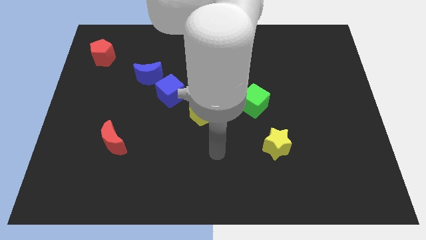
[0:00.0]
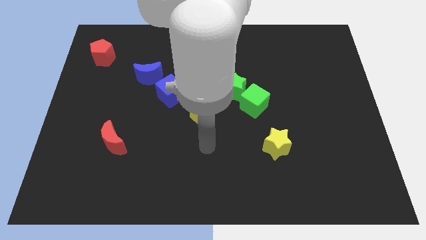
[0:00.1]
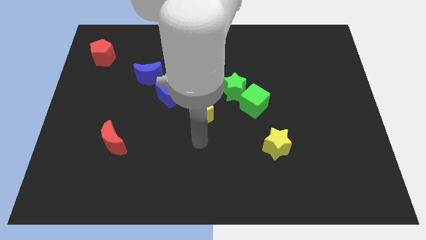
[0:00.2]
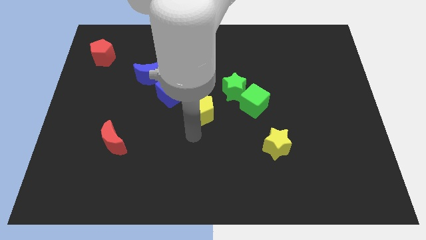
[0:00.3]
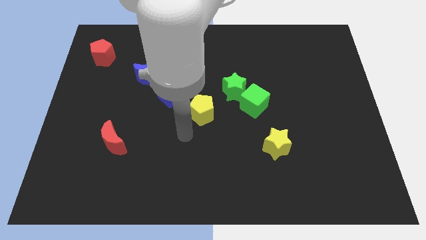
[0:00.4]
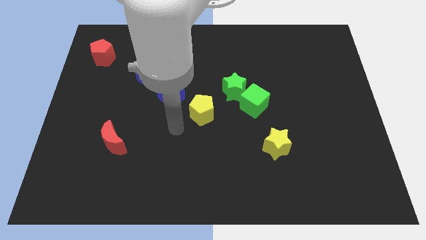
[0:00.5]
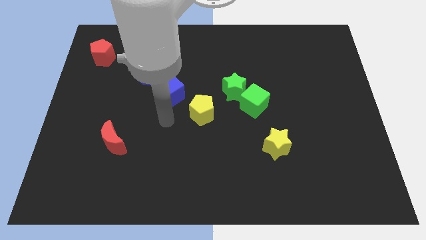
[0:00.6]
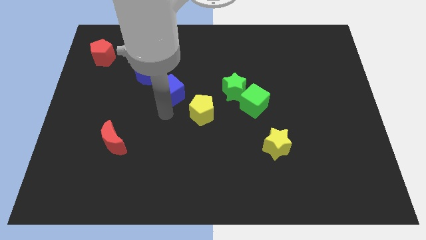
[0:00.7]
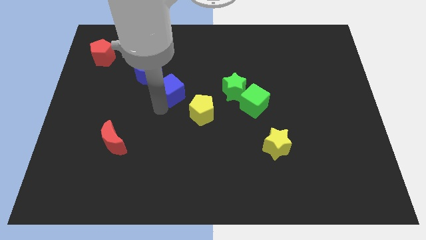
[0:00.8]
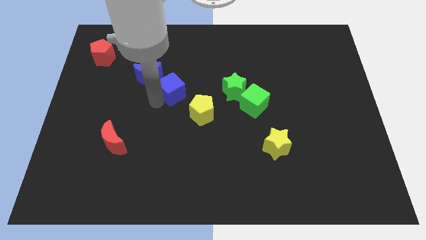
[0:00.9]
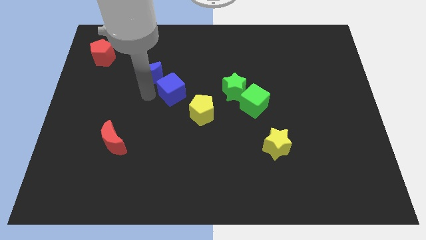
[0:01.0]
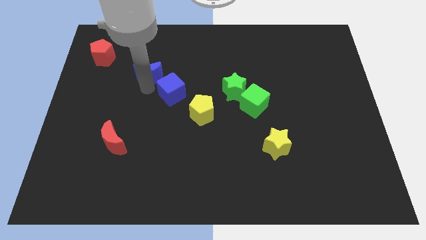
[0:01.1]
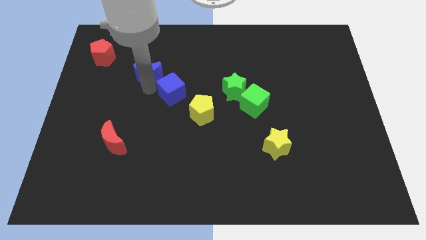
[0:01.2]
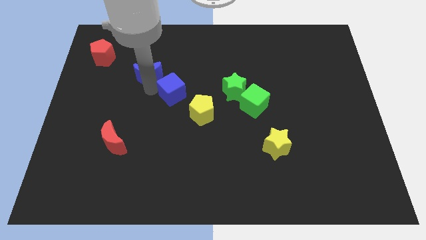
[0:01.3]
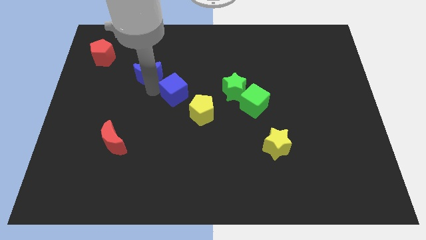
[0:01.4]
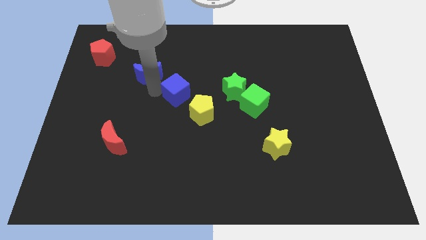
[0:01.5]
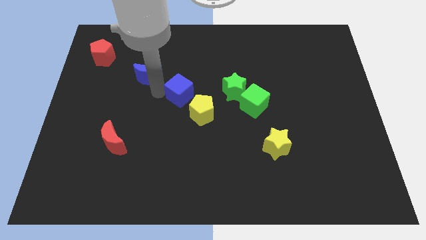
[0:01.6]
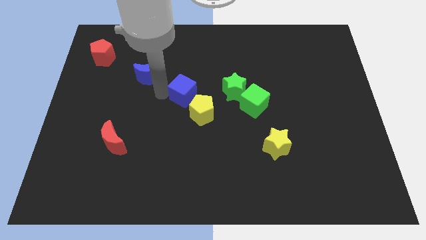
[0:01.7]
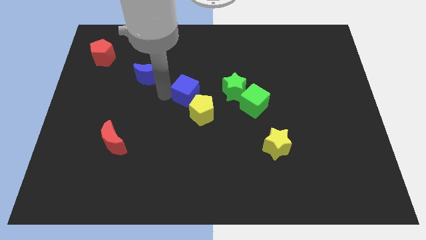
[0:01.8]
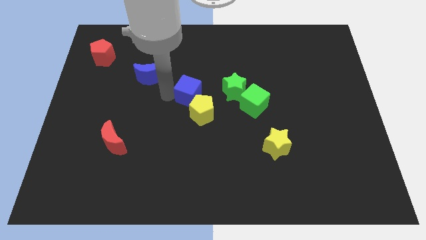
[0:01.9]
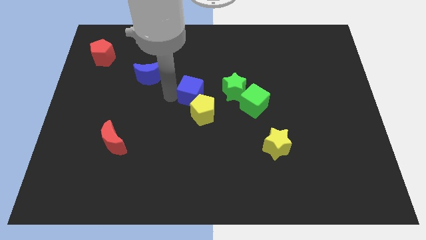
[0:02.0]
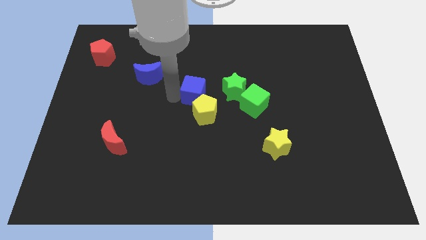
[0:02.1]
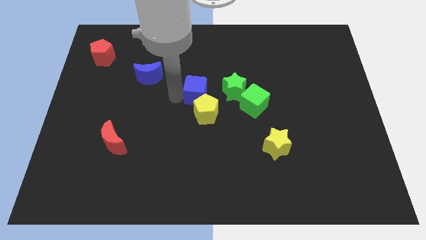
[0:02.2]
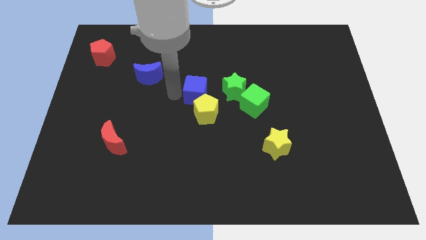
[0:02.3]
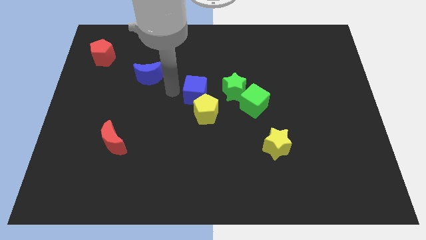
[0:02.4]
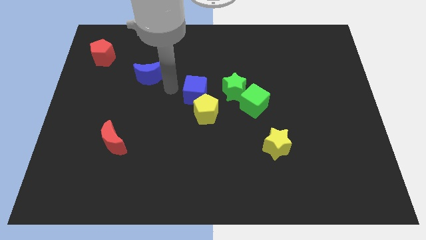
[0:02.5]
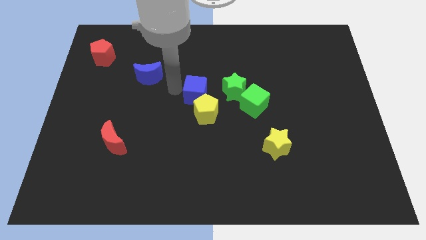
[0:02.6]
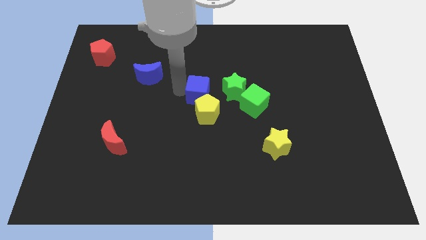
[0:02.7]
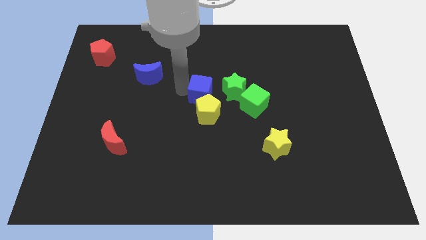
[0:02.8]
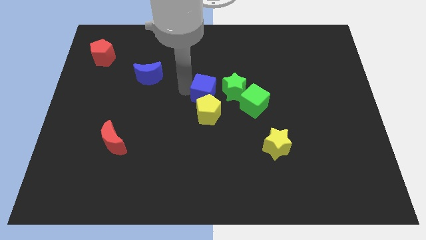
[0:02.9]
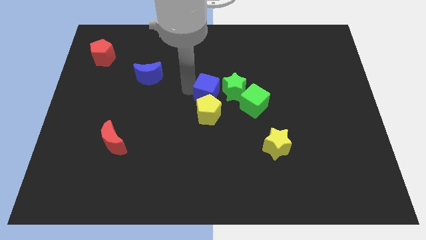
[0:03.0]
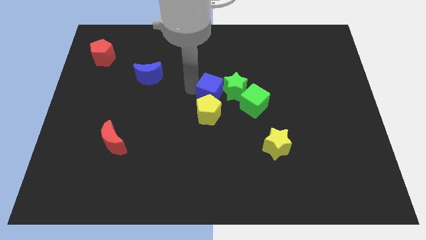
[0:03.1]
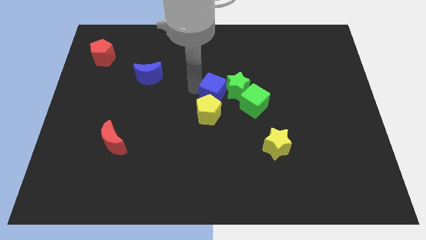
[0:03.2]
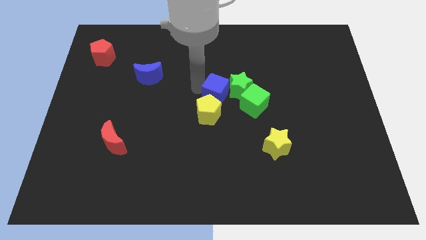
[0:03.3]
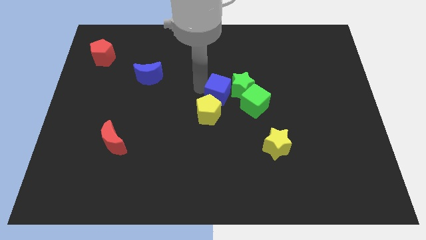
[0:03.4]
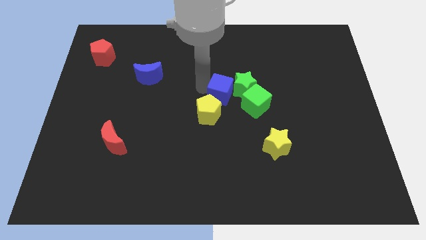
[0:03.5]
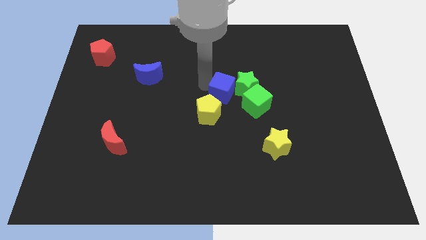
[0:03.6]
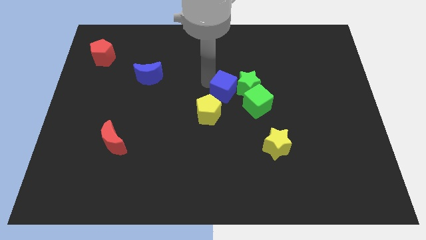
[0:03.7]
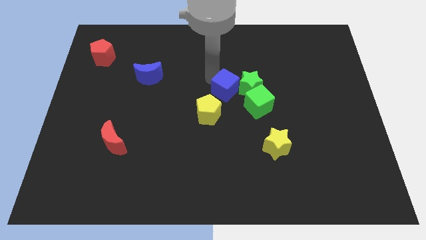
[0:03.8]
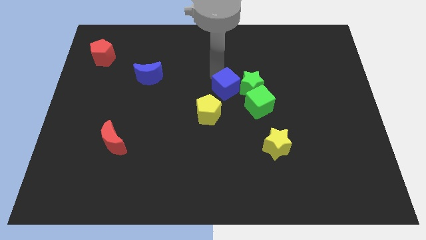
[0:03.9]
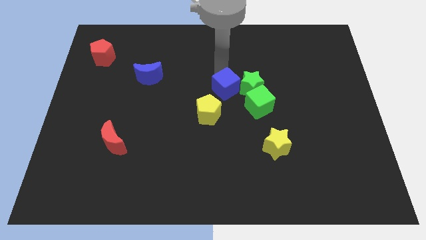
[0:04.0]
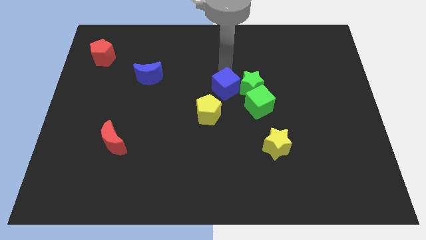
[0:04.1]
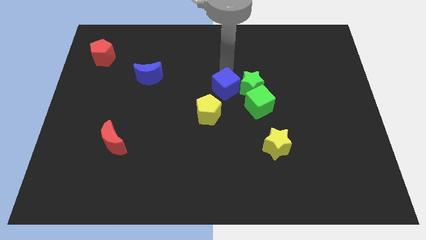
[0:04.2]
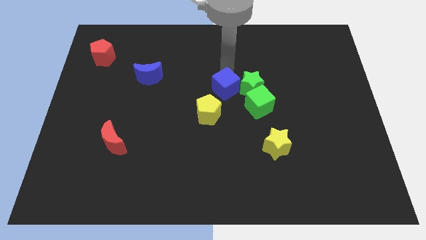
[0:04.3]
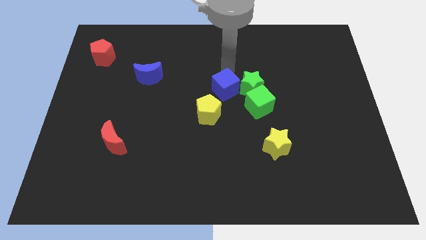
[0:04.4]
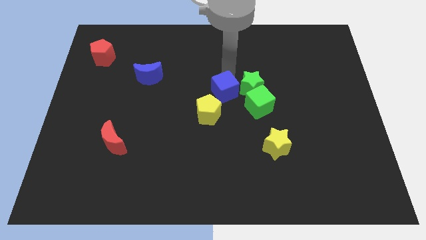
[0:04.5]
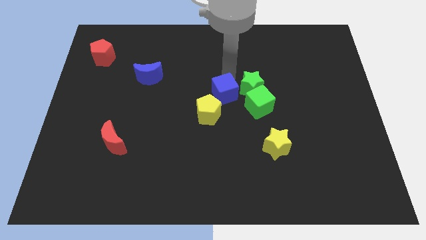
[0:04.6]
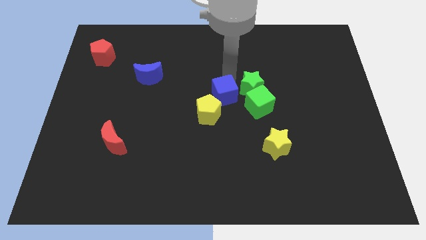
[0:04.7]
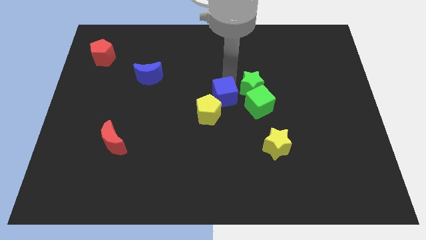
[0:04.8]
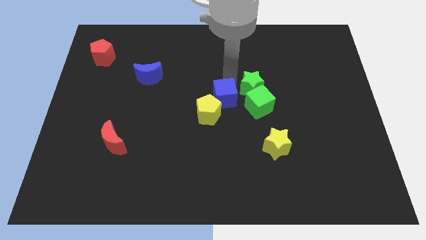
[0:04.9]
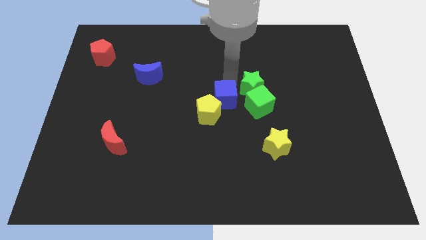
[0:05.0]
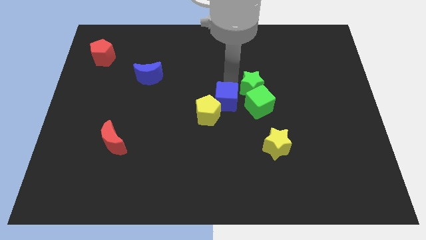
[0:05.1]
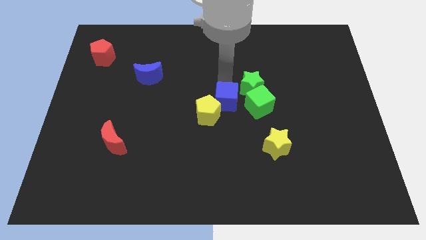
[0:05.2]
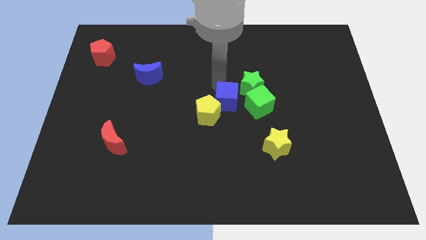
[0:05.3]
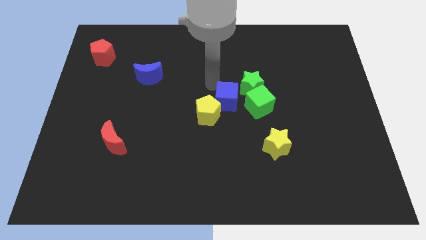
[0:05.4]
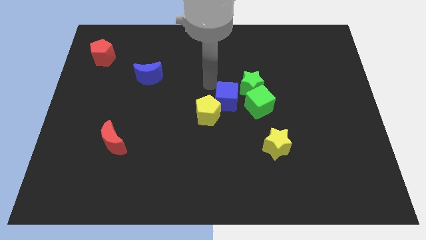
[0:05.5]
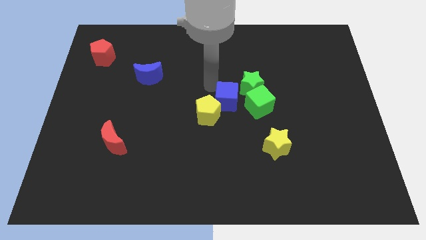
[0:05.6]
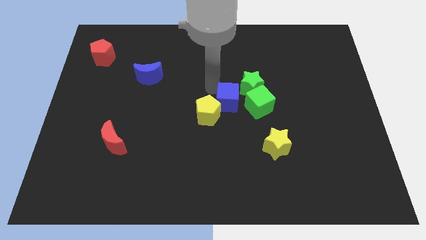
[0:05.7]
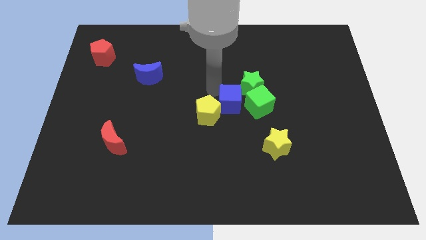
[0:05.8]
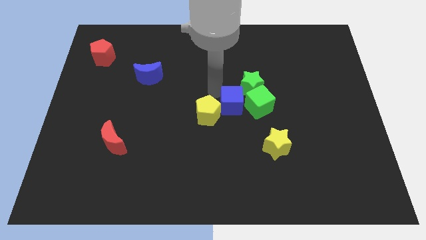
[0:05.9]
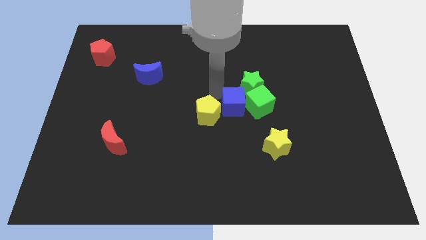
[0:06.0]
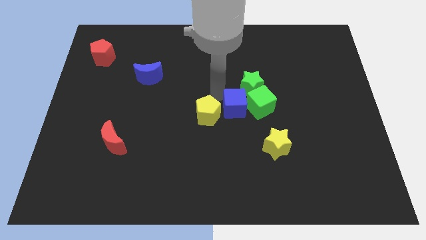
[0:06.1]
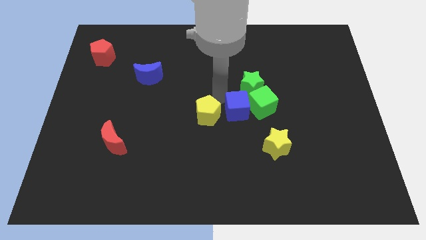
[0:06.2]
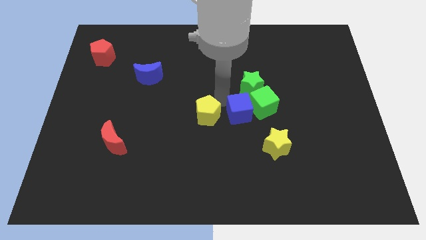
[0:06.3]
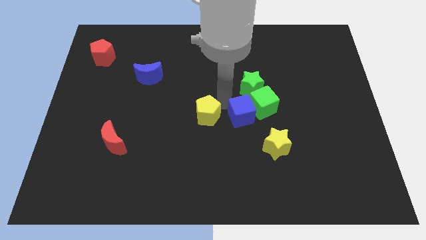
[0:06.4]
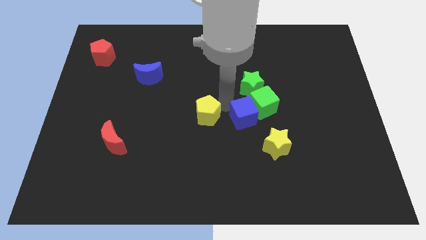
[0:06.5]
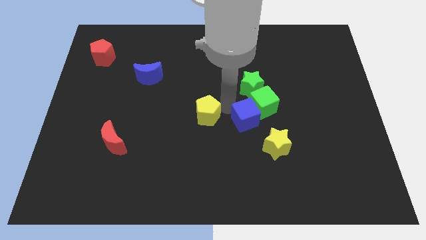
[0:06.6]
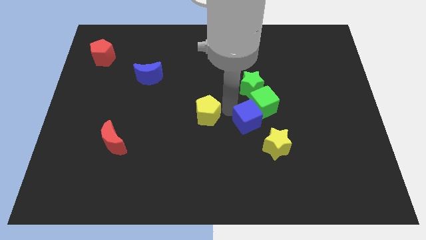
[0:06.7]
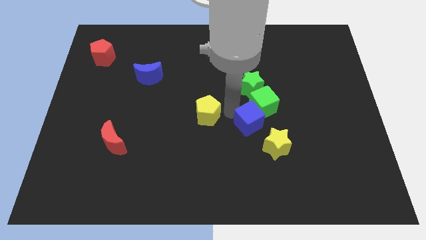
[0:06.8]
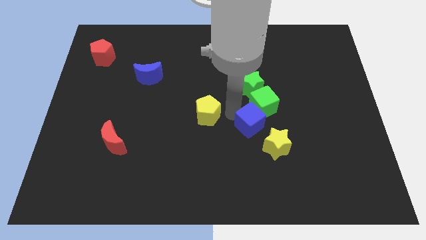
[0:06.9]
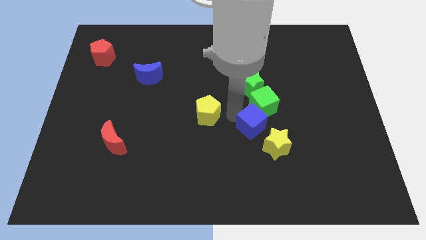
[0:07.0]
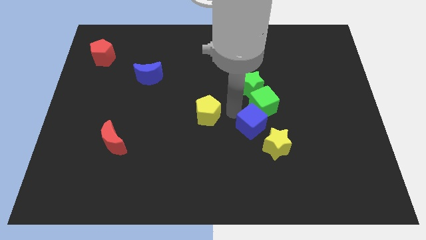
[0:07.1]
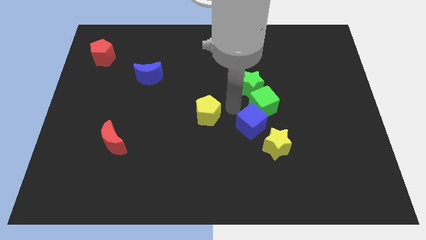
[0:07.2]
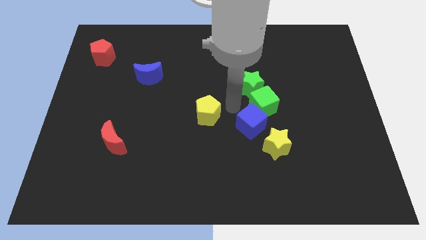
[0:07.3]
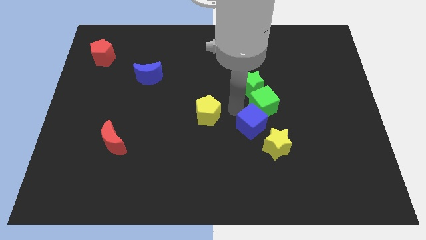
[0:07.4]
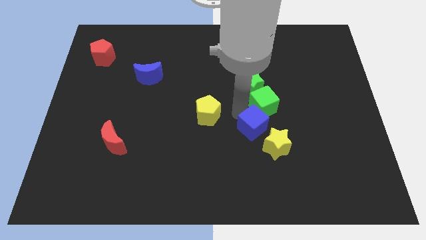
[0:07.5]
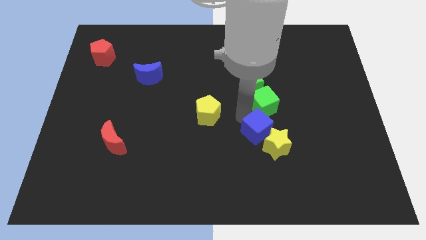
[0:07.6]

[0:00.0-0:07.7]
move the blue cube next to the yellow star

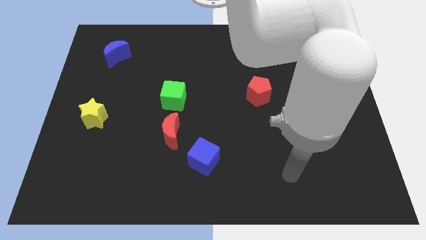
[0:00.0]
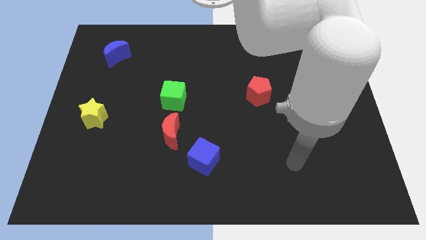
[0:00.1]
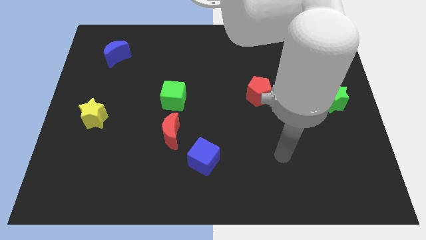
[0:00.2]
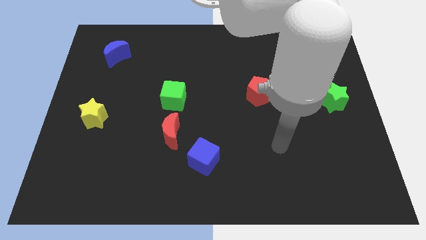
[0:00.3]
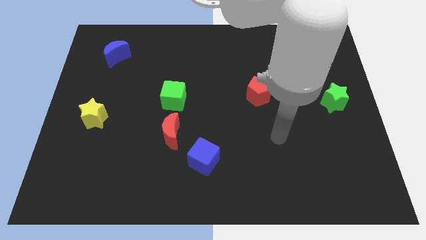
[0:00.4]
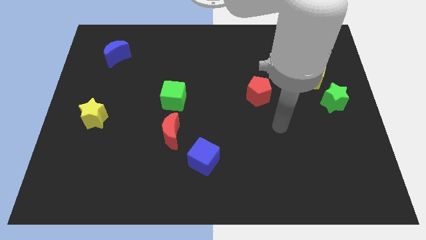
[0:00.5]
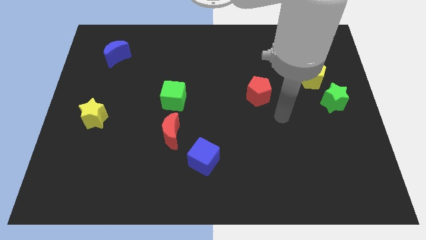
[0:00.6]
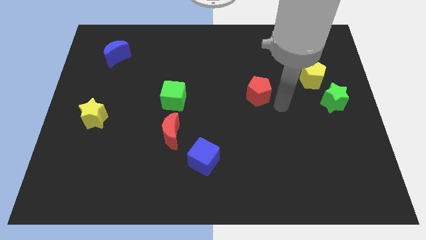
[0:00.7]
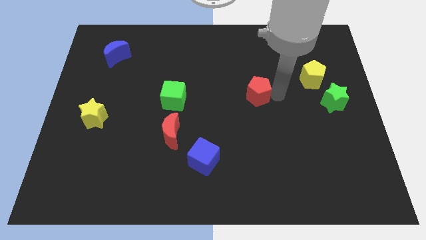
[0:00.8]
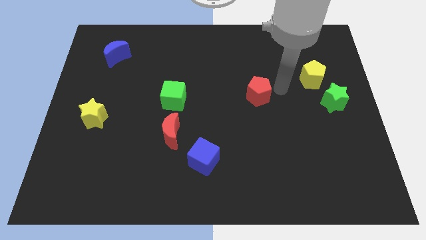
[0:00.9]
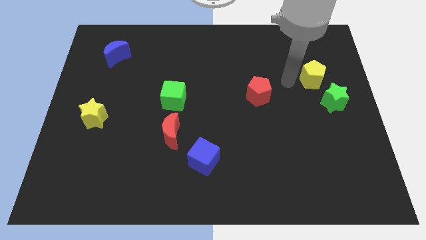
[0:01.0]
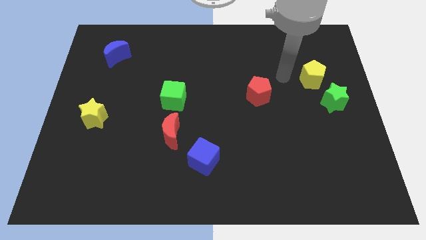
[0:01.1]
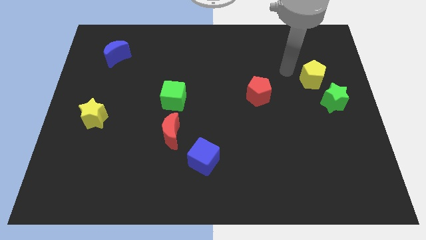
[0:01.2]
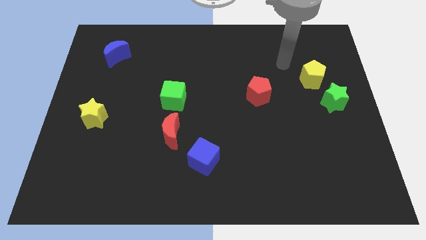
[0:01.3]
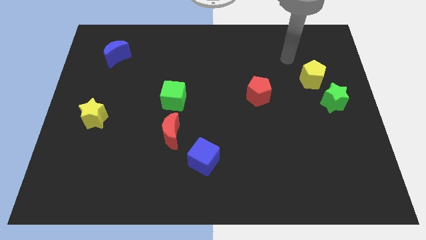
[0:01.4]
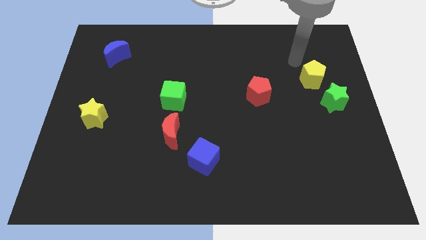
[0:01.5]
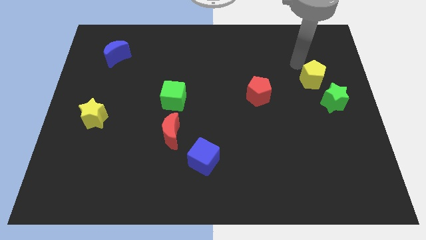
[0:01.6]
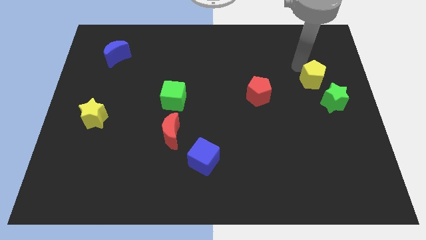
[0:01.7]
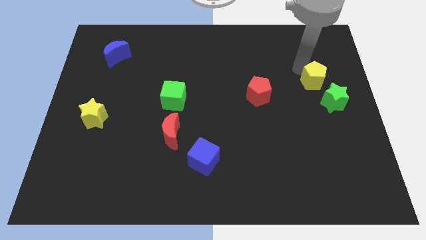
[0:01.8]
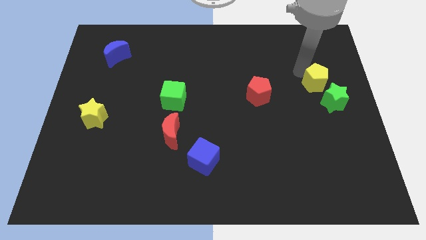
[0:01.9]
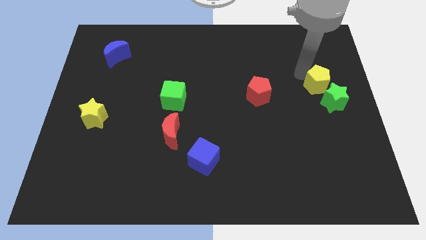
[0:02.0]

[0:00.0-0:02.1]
put the yellow pentagon close to the green star
